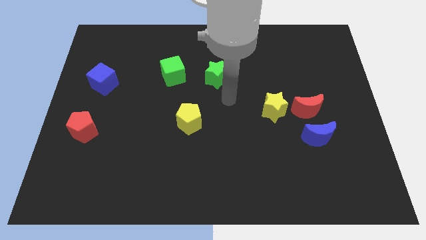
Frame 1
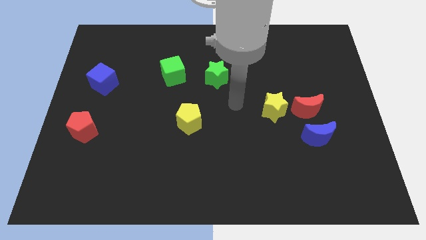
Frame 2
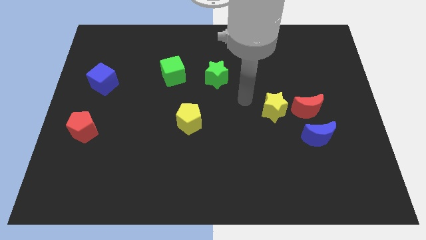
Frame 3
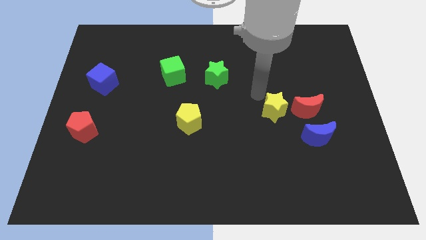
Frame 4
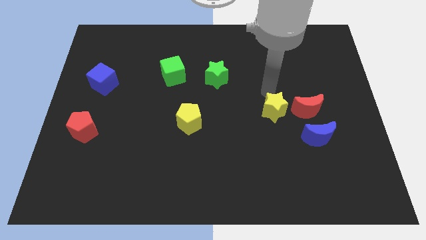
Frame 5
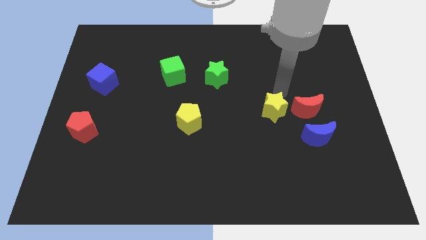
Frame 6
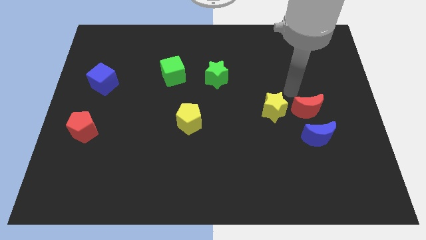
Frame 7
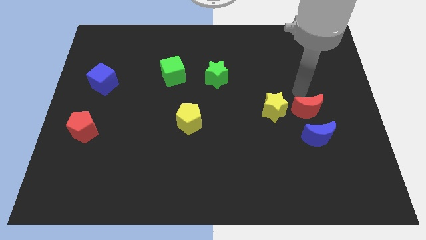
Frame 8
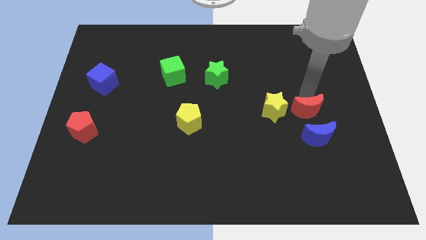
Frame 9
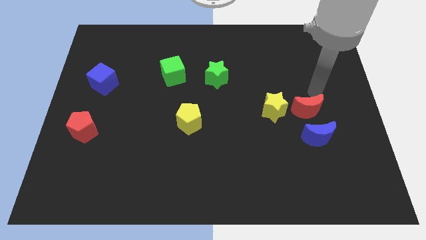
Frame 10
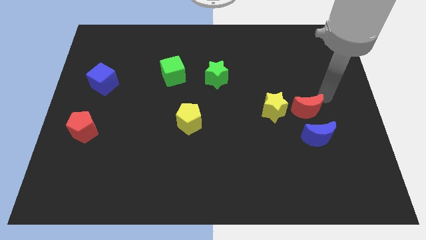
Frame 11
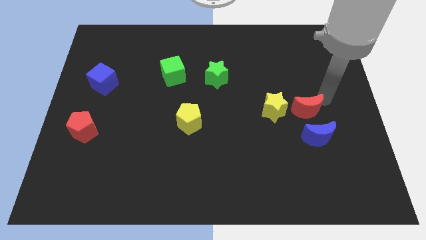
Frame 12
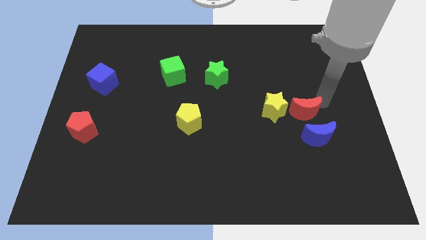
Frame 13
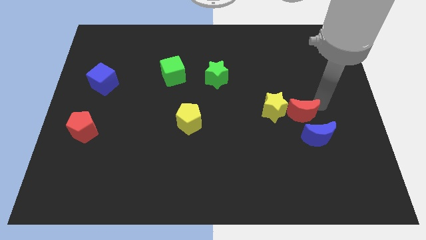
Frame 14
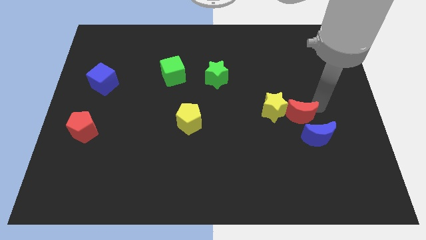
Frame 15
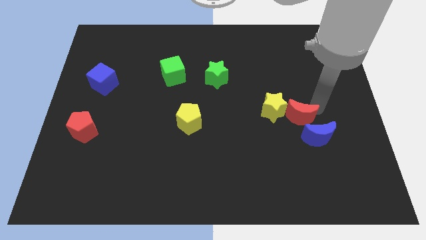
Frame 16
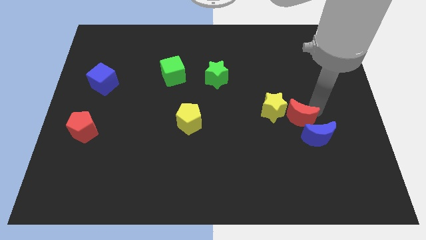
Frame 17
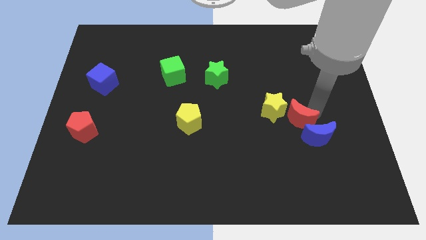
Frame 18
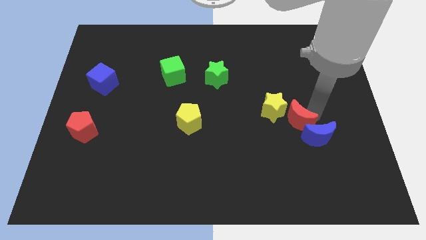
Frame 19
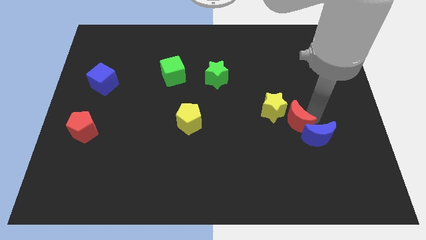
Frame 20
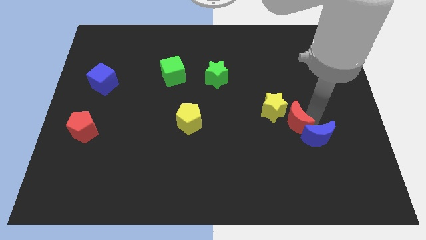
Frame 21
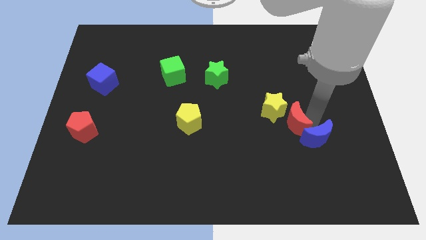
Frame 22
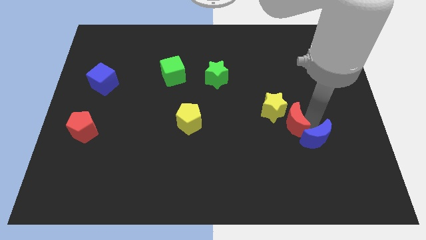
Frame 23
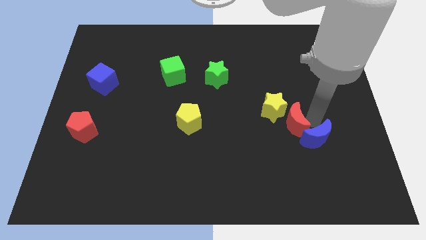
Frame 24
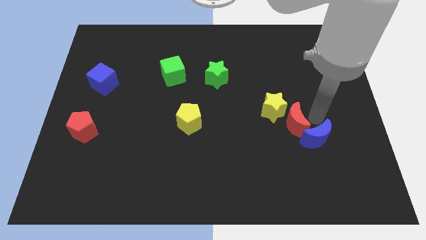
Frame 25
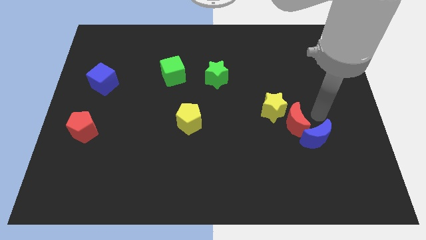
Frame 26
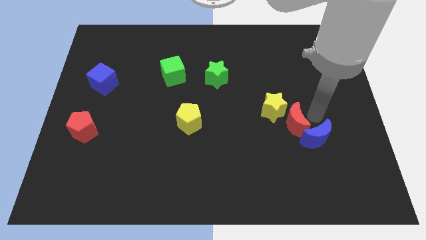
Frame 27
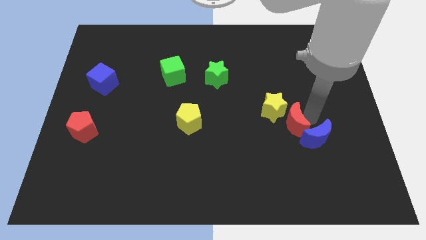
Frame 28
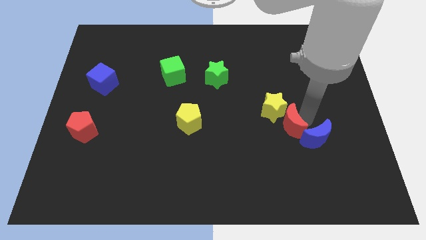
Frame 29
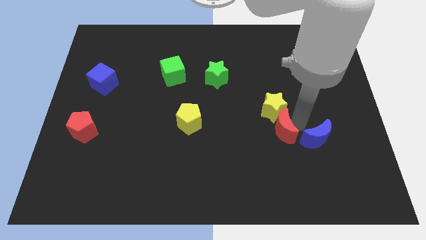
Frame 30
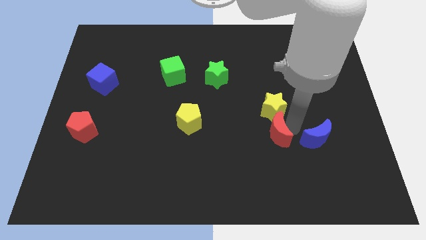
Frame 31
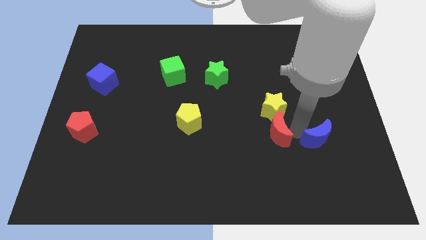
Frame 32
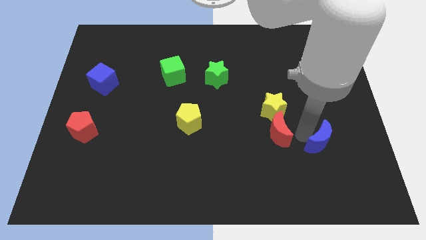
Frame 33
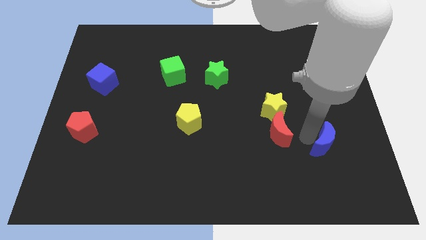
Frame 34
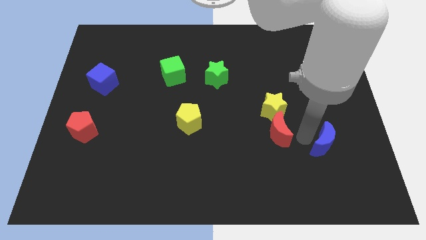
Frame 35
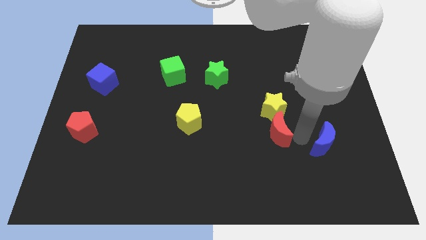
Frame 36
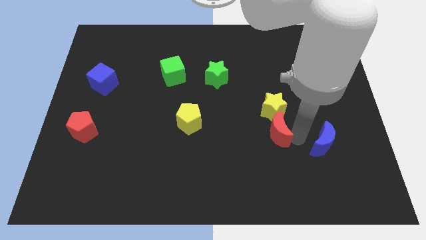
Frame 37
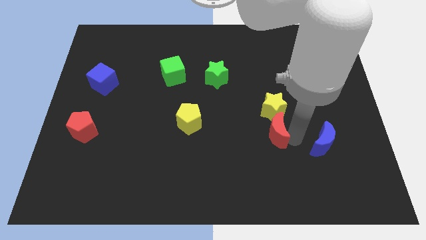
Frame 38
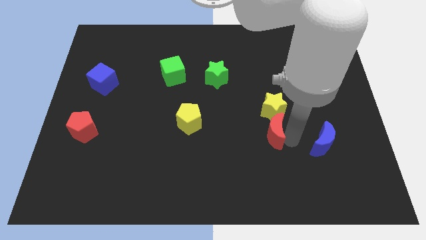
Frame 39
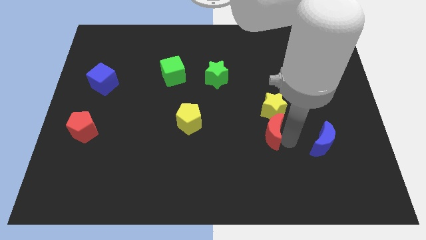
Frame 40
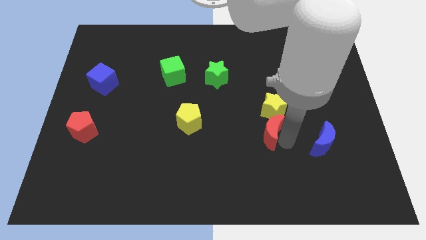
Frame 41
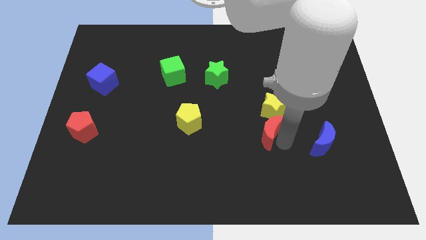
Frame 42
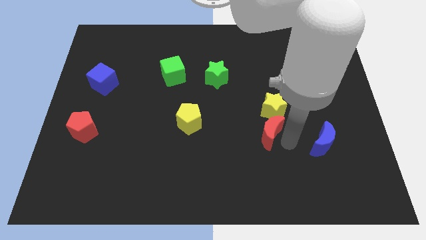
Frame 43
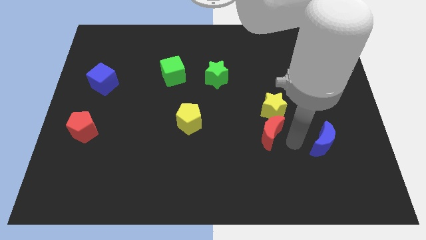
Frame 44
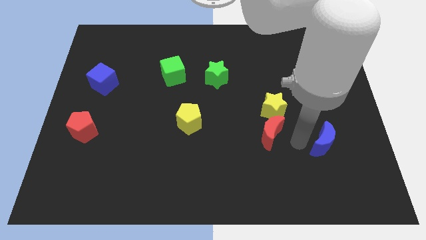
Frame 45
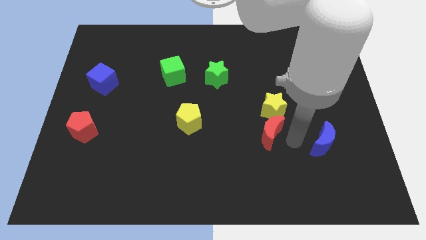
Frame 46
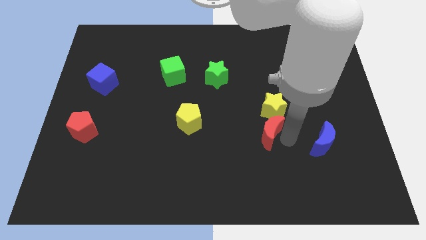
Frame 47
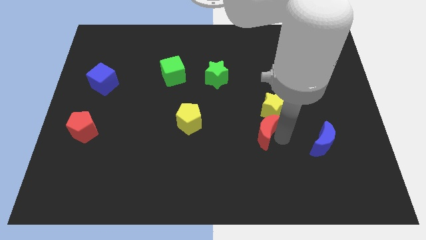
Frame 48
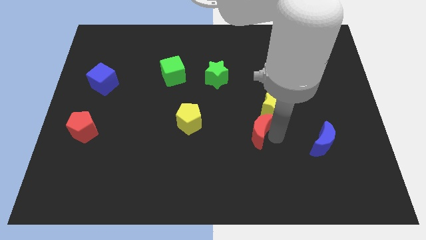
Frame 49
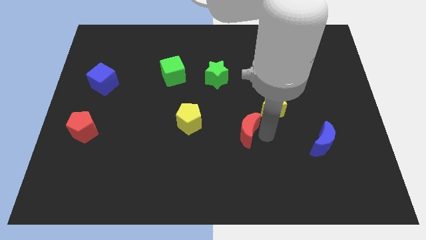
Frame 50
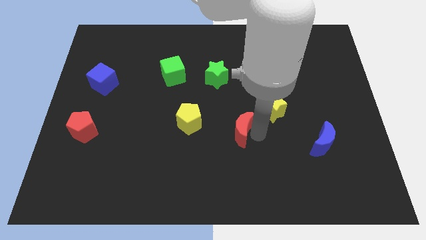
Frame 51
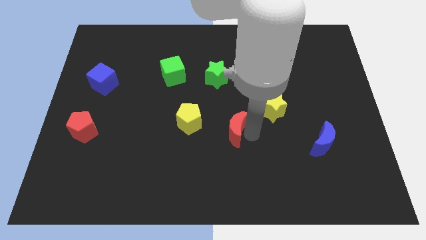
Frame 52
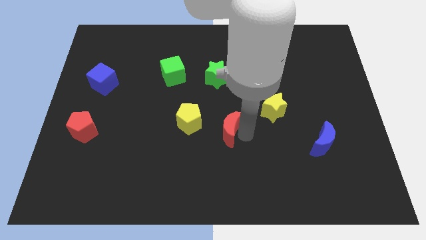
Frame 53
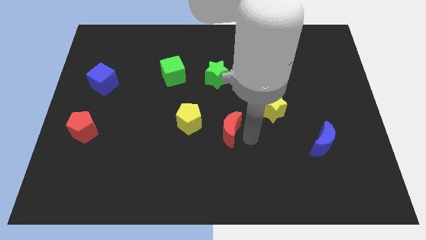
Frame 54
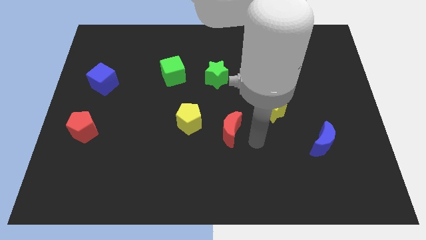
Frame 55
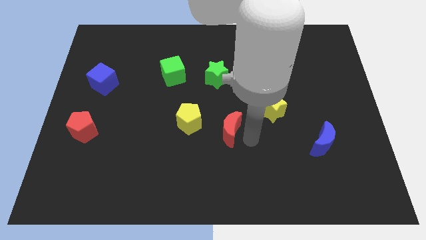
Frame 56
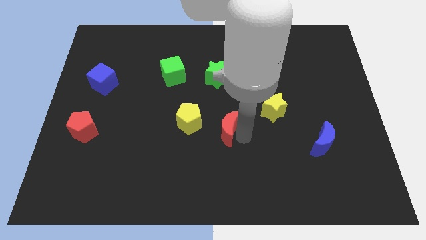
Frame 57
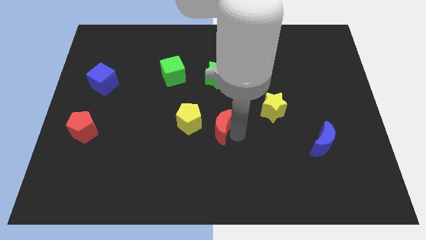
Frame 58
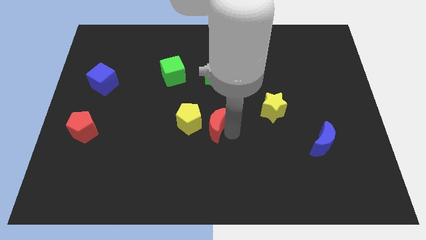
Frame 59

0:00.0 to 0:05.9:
slide the red moon close to the yellow pentagon

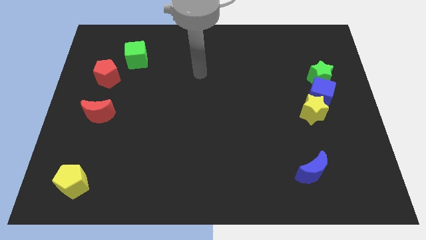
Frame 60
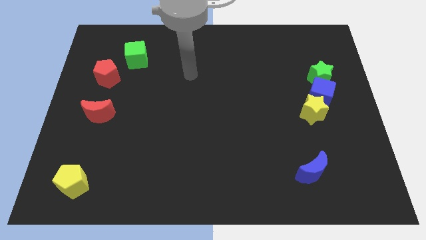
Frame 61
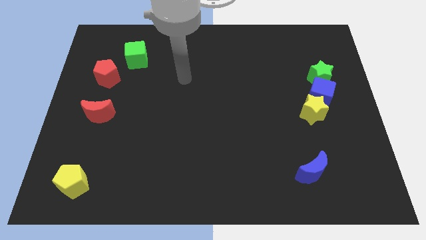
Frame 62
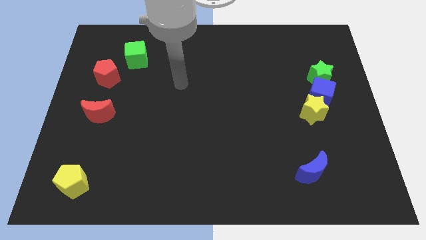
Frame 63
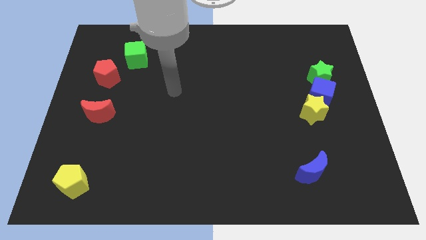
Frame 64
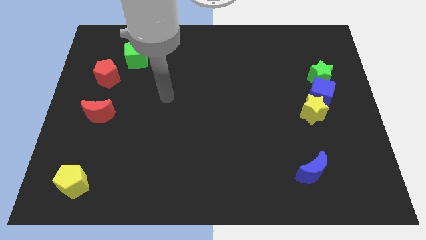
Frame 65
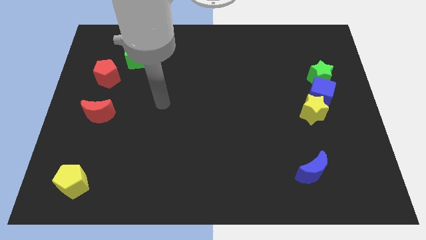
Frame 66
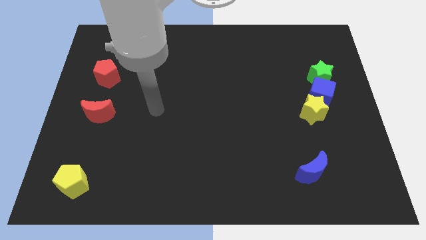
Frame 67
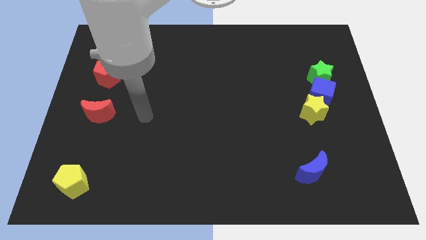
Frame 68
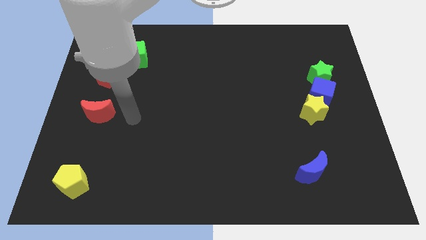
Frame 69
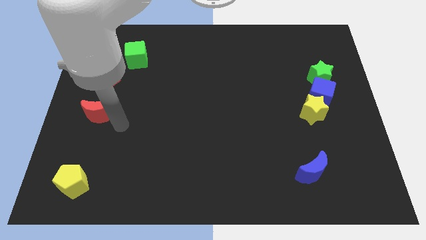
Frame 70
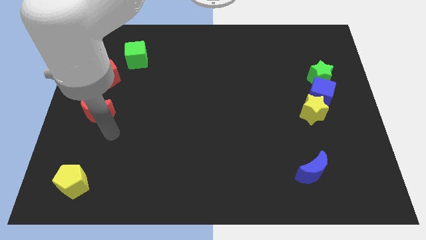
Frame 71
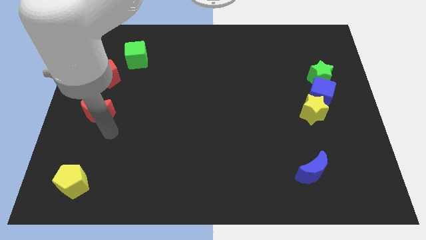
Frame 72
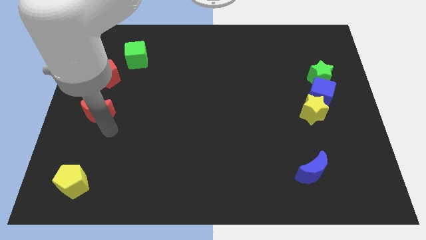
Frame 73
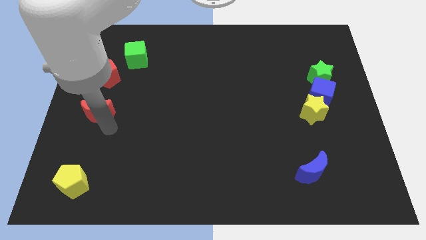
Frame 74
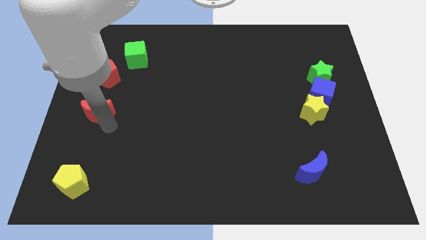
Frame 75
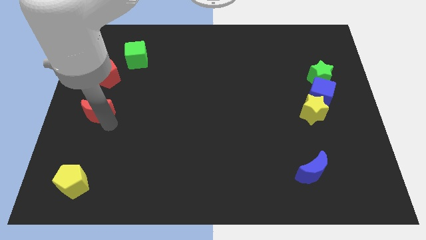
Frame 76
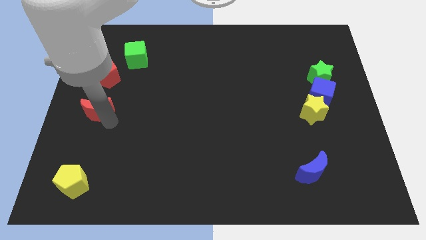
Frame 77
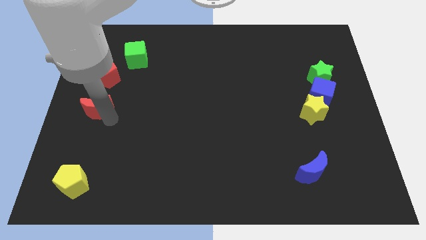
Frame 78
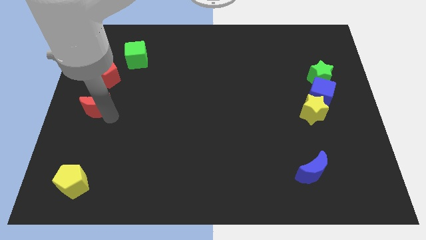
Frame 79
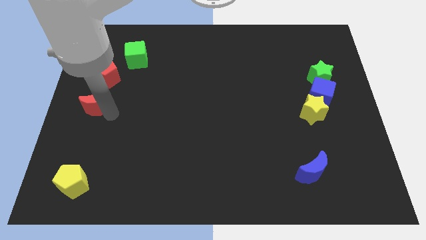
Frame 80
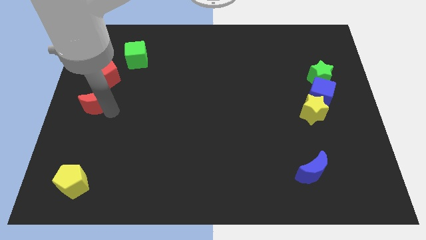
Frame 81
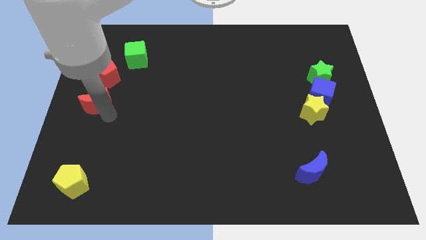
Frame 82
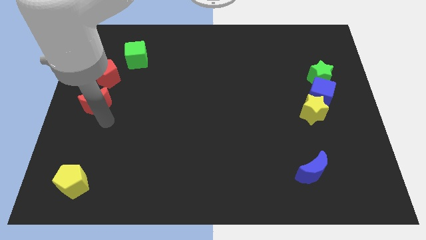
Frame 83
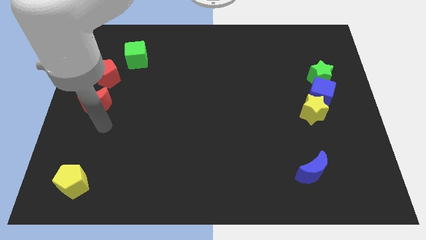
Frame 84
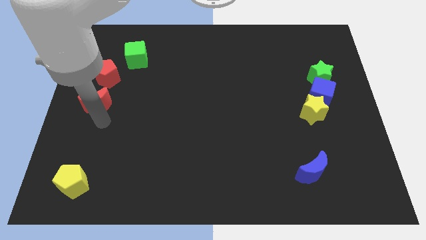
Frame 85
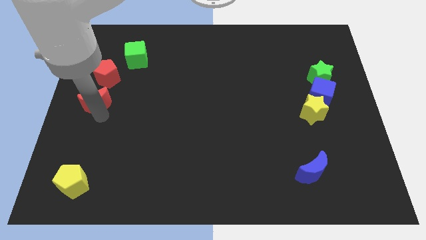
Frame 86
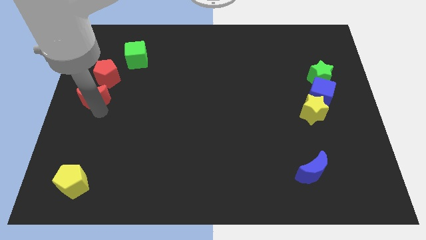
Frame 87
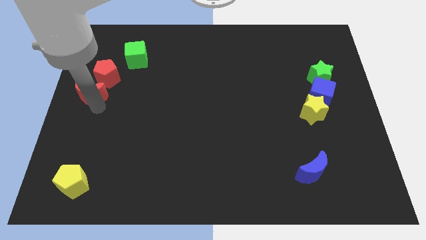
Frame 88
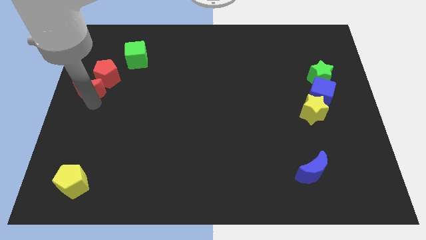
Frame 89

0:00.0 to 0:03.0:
push the red moon to the red pentagon
